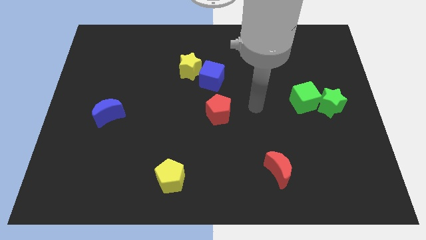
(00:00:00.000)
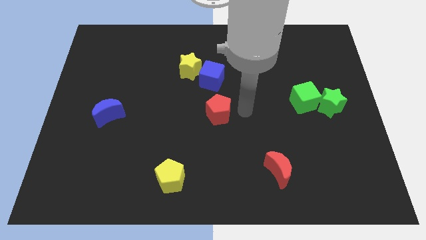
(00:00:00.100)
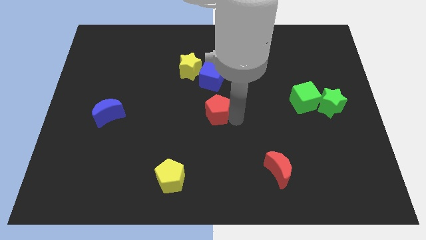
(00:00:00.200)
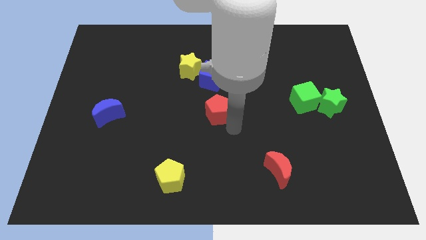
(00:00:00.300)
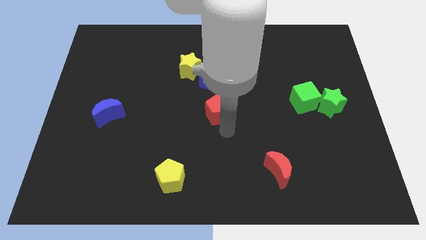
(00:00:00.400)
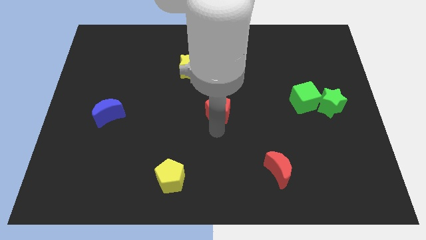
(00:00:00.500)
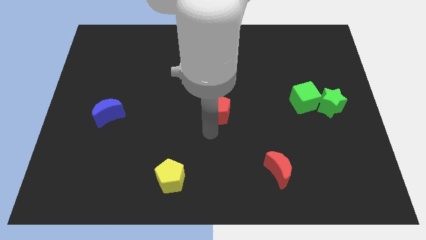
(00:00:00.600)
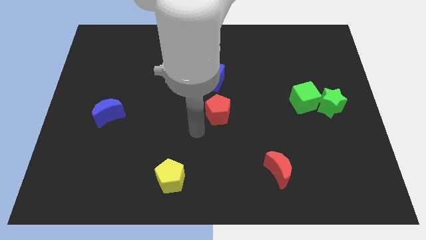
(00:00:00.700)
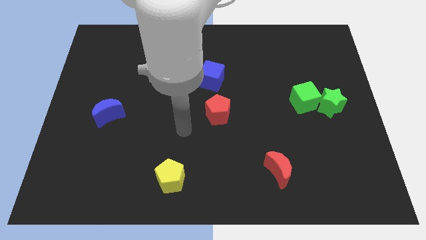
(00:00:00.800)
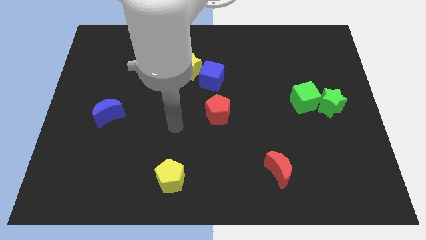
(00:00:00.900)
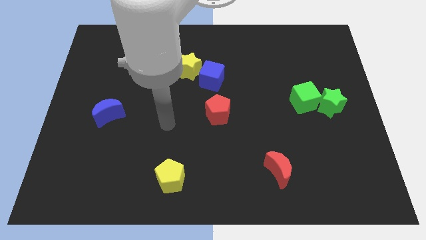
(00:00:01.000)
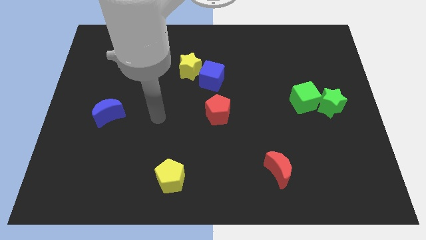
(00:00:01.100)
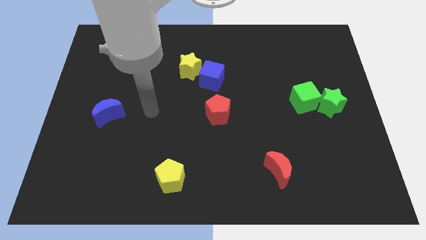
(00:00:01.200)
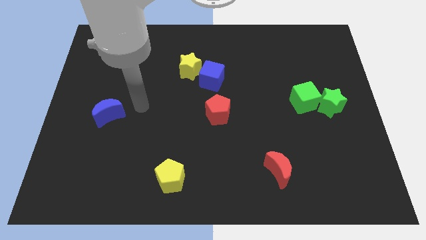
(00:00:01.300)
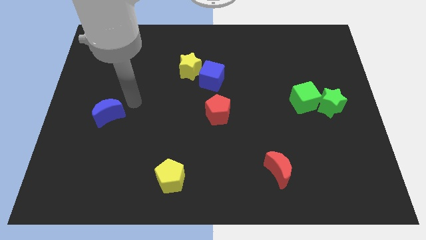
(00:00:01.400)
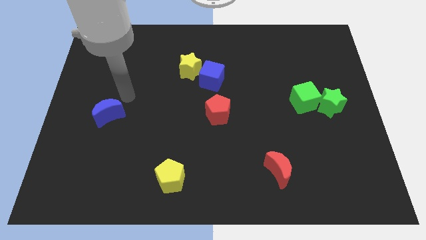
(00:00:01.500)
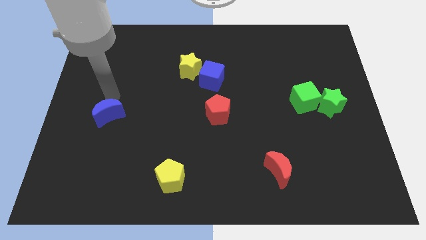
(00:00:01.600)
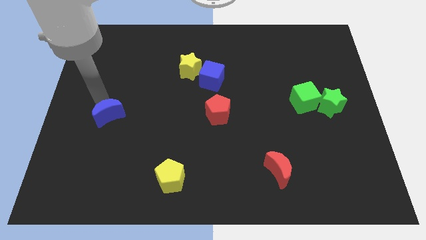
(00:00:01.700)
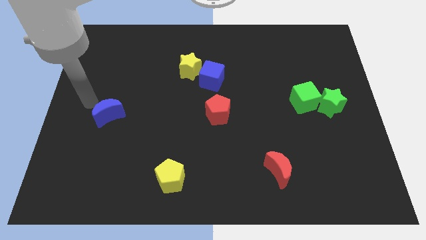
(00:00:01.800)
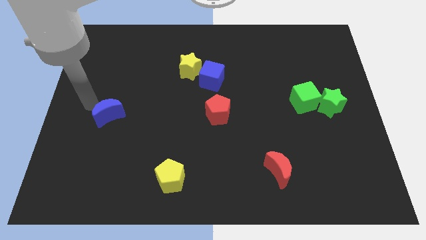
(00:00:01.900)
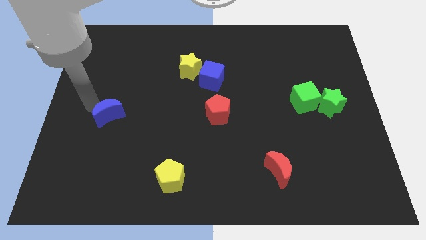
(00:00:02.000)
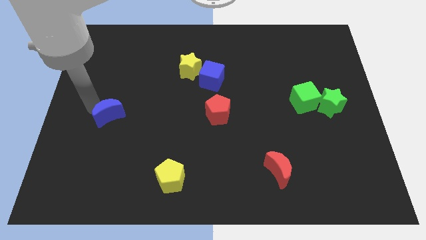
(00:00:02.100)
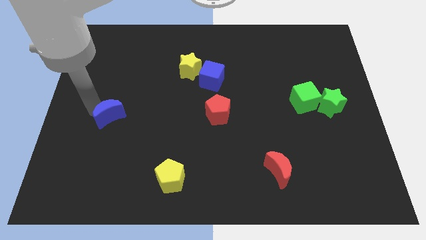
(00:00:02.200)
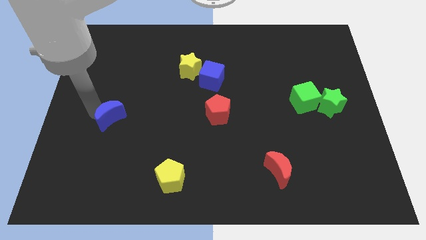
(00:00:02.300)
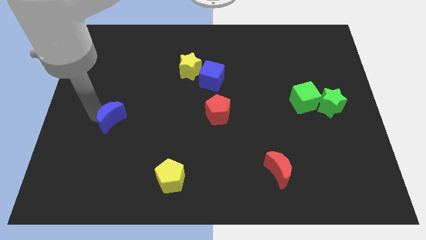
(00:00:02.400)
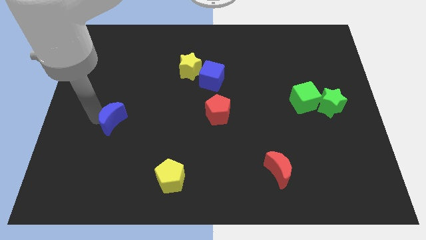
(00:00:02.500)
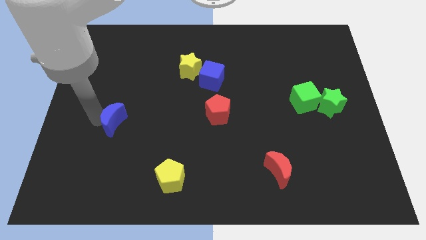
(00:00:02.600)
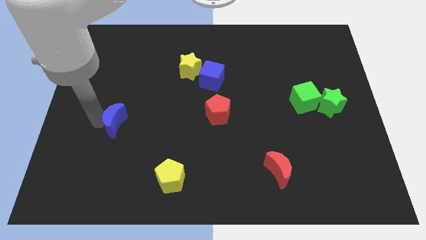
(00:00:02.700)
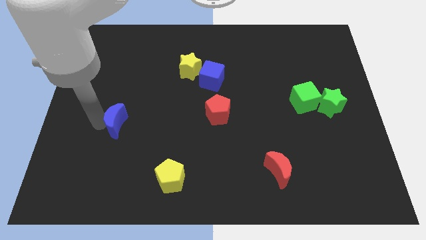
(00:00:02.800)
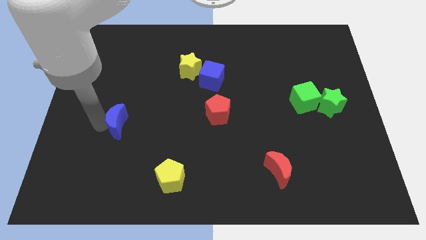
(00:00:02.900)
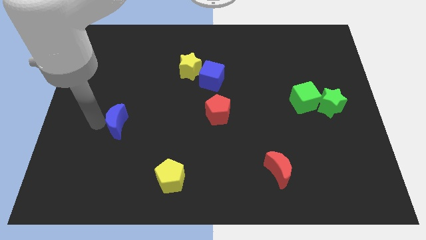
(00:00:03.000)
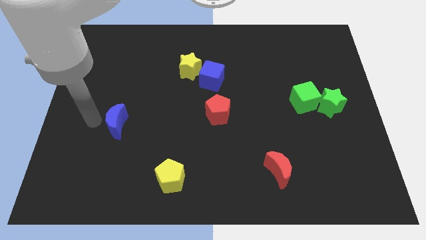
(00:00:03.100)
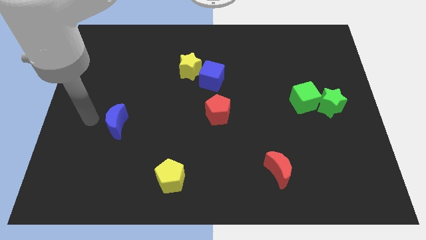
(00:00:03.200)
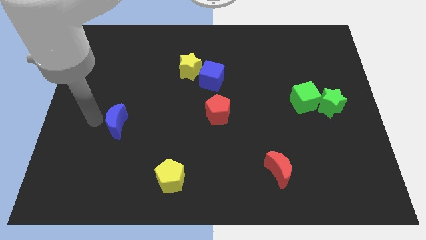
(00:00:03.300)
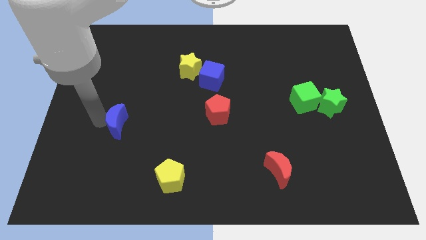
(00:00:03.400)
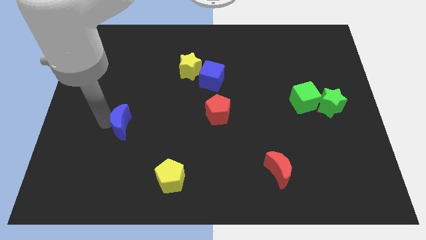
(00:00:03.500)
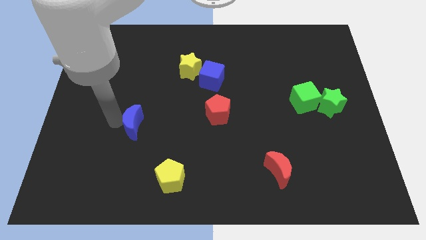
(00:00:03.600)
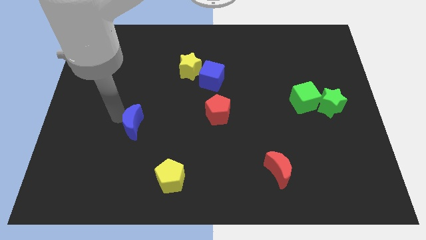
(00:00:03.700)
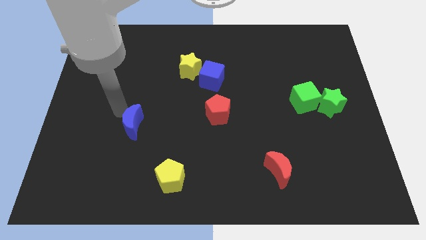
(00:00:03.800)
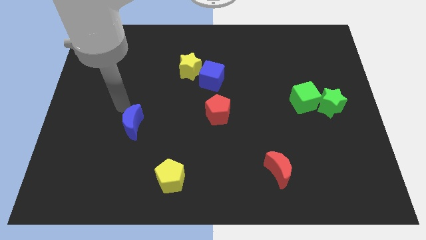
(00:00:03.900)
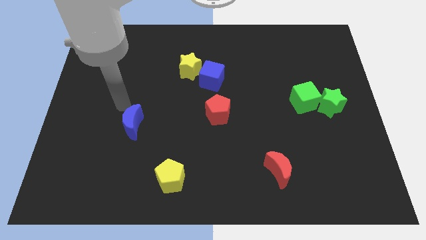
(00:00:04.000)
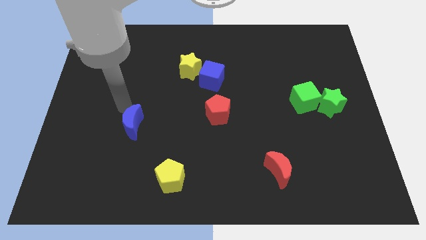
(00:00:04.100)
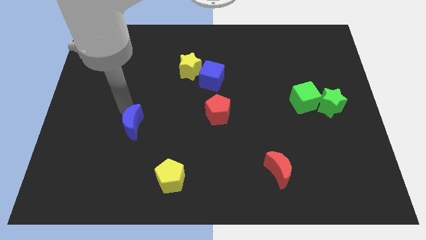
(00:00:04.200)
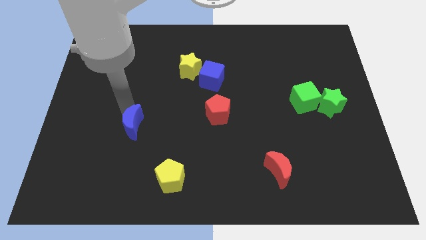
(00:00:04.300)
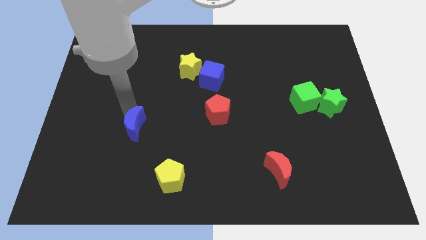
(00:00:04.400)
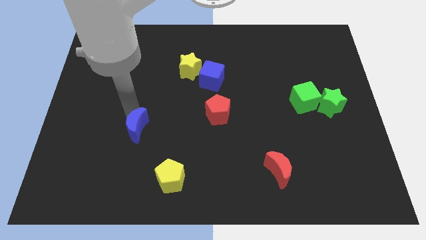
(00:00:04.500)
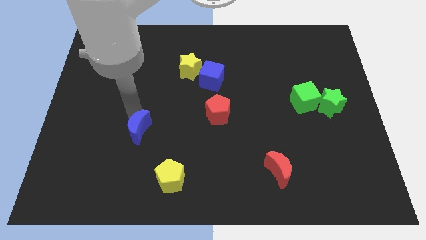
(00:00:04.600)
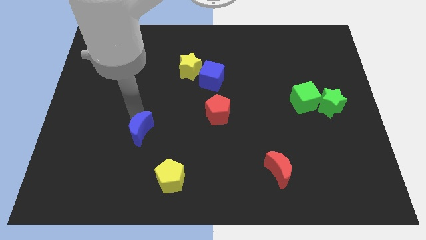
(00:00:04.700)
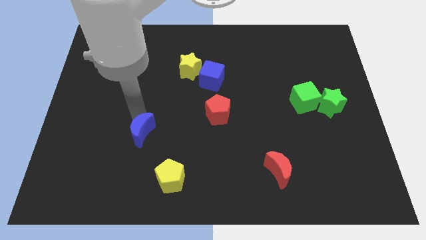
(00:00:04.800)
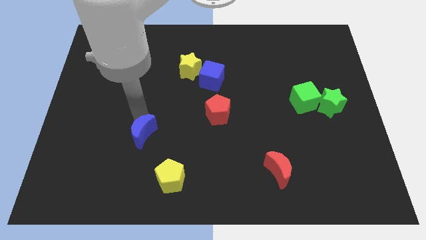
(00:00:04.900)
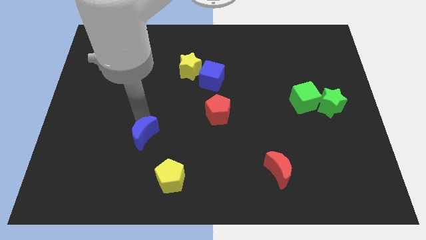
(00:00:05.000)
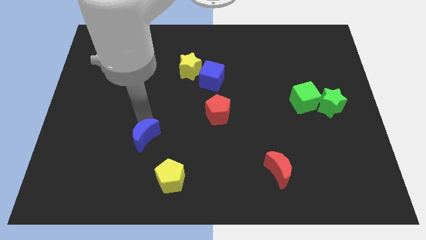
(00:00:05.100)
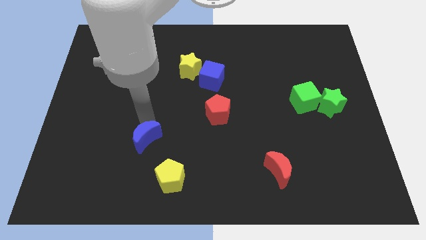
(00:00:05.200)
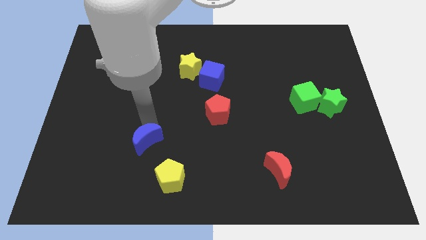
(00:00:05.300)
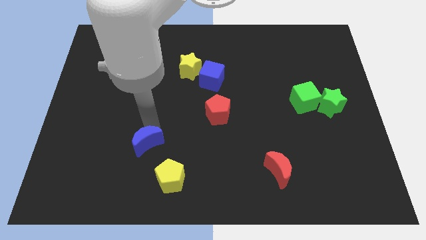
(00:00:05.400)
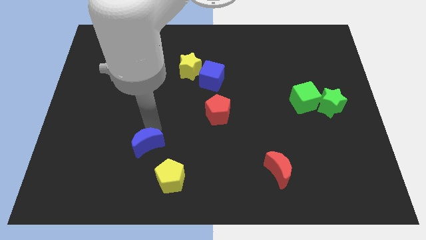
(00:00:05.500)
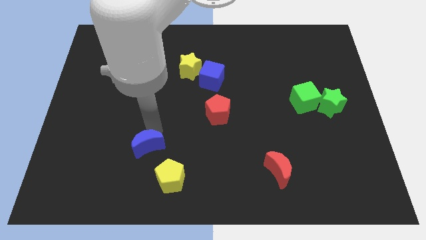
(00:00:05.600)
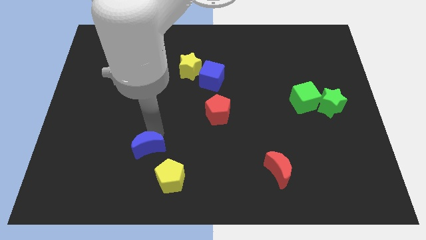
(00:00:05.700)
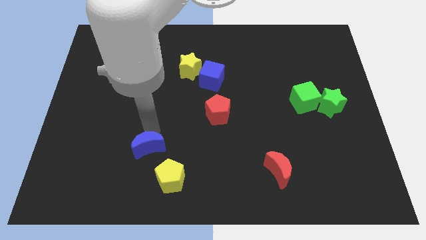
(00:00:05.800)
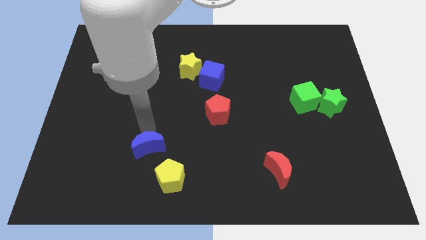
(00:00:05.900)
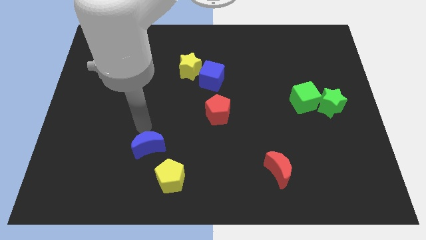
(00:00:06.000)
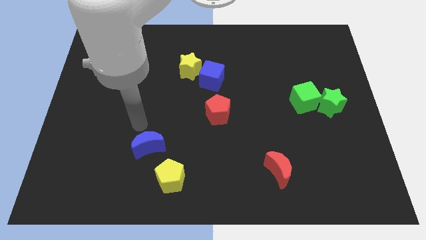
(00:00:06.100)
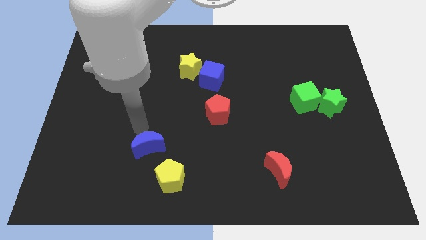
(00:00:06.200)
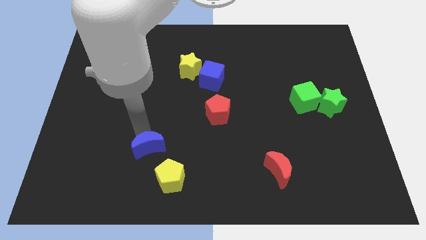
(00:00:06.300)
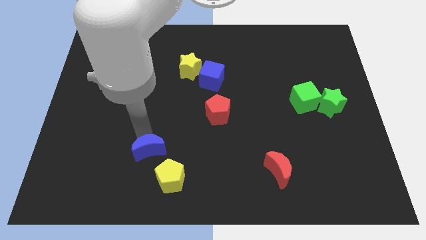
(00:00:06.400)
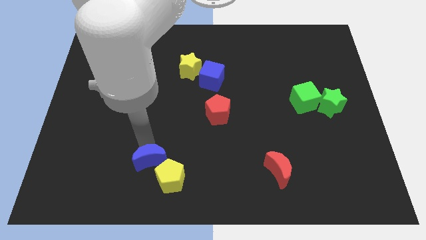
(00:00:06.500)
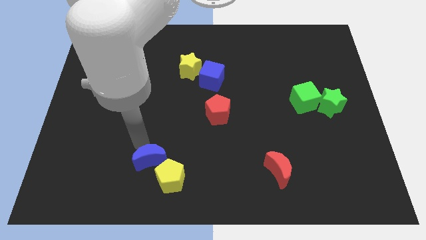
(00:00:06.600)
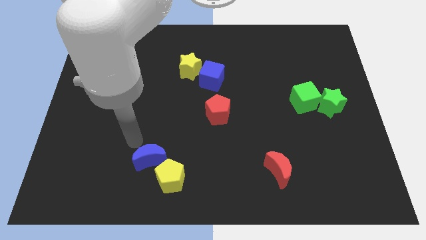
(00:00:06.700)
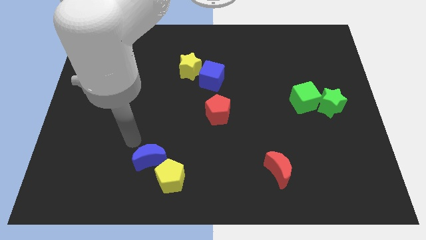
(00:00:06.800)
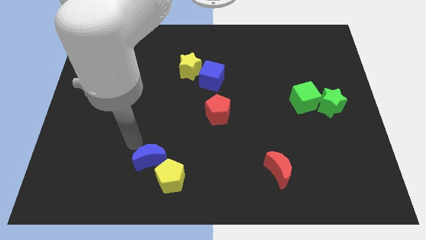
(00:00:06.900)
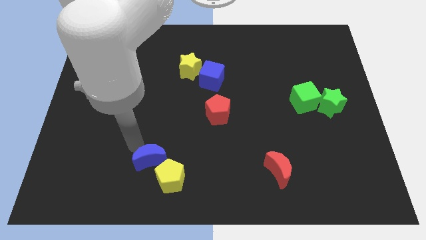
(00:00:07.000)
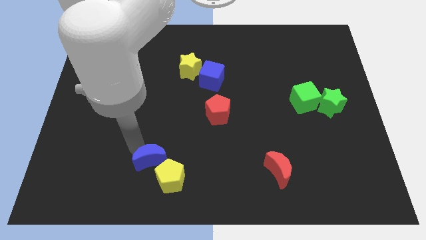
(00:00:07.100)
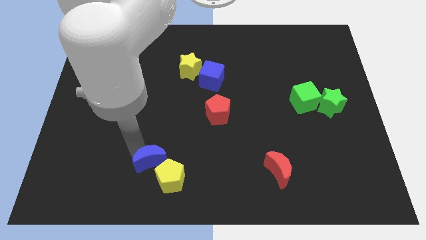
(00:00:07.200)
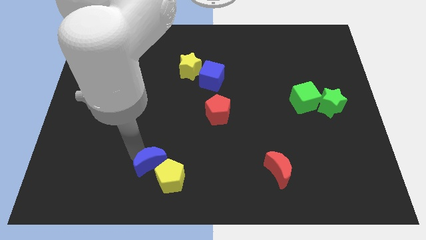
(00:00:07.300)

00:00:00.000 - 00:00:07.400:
move the blue moon next to the yellow pentagon
